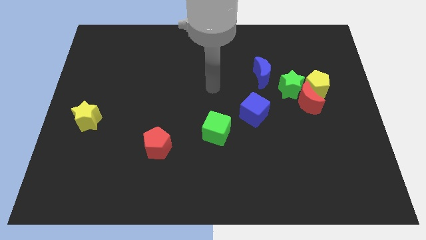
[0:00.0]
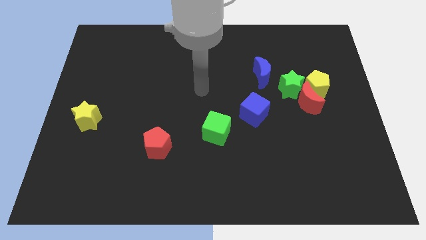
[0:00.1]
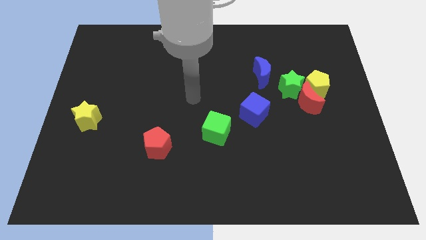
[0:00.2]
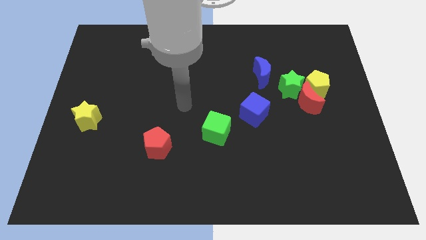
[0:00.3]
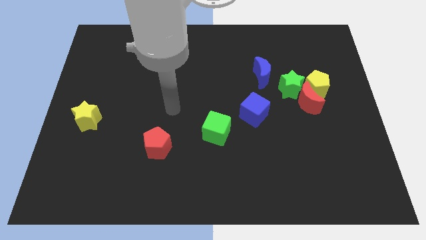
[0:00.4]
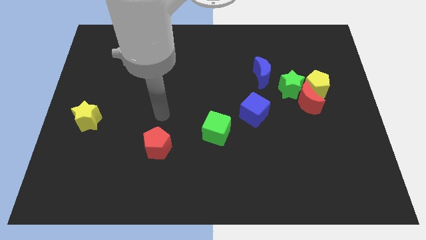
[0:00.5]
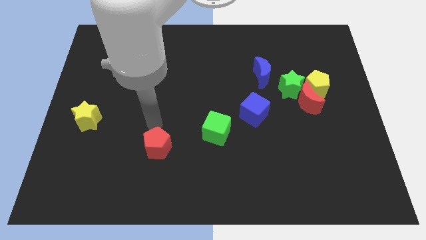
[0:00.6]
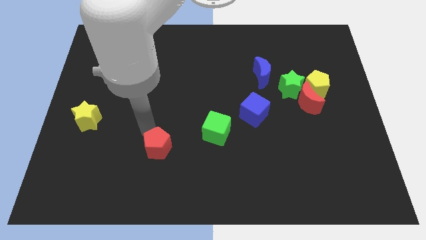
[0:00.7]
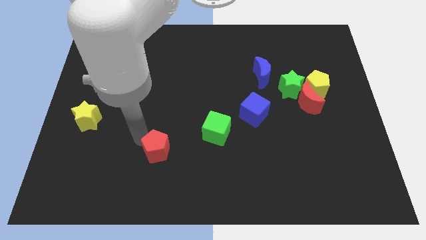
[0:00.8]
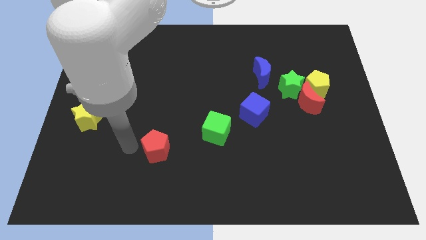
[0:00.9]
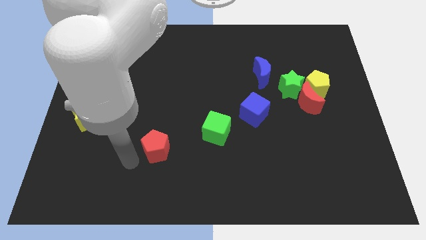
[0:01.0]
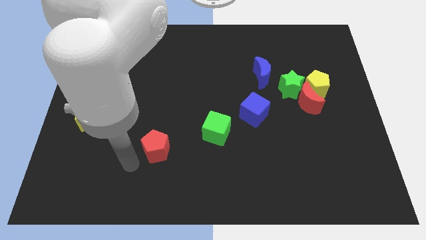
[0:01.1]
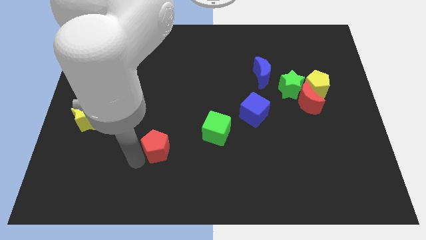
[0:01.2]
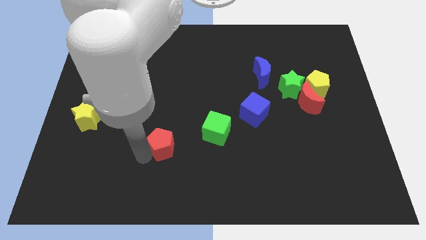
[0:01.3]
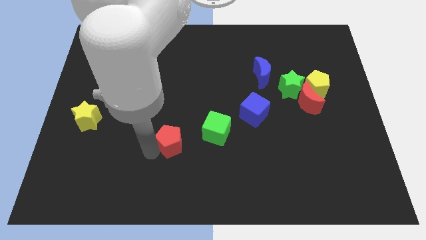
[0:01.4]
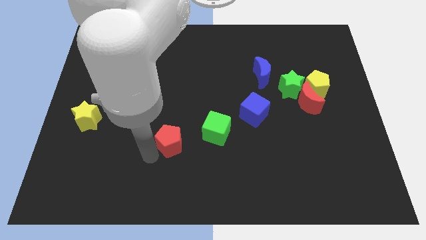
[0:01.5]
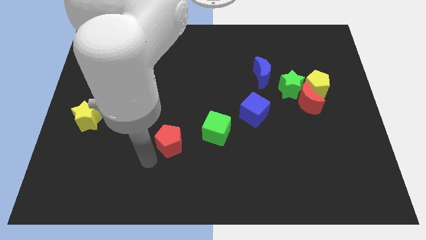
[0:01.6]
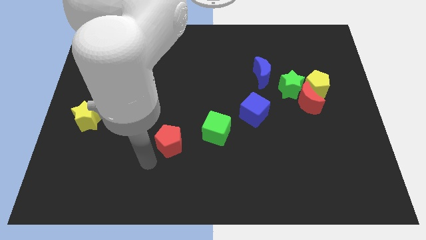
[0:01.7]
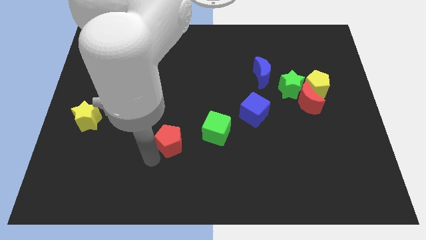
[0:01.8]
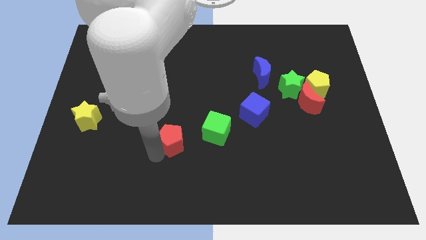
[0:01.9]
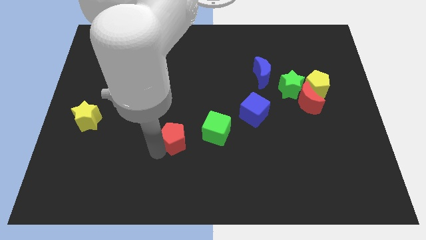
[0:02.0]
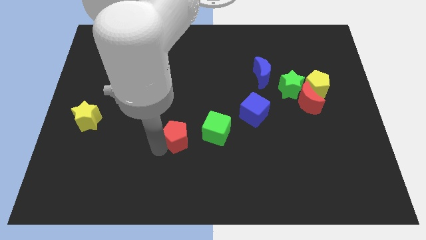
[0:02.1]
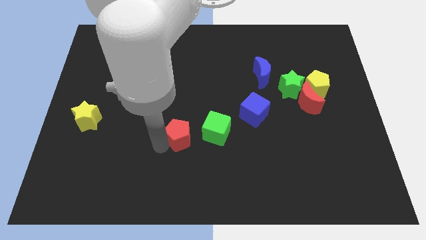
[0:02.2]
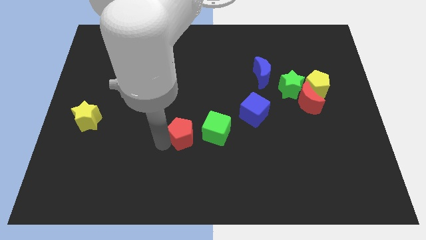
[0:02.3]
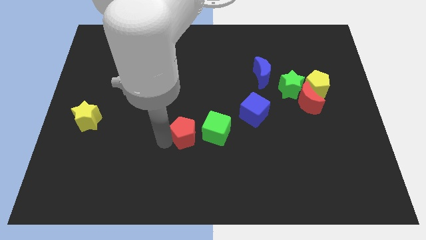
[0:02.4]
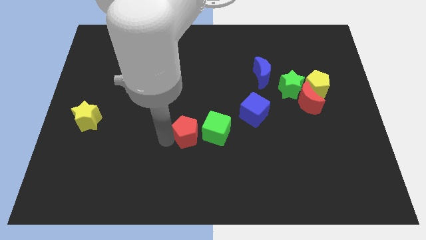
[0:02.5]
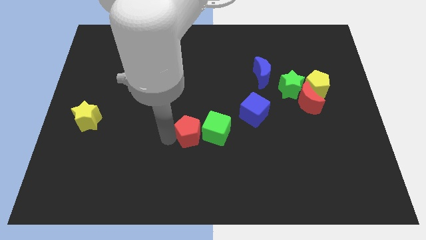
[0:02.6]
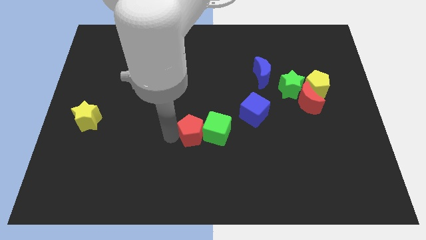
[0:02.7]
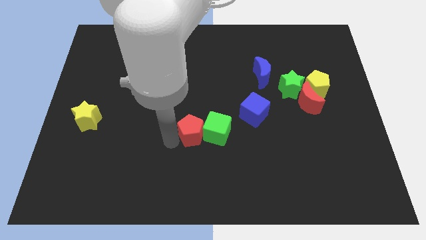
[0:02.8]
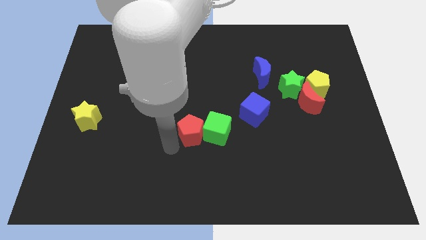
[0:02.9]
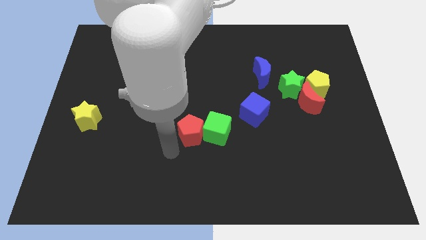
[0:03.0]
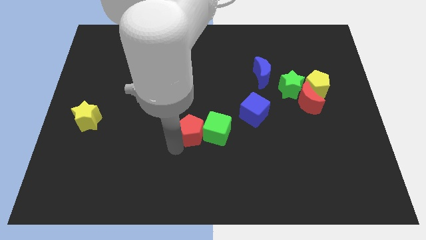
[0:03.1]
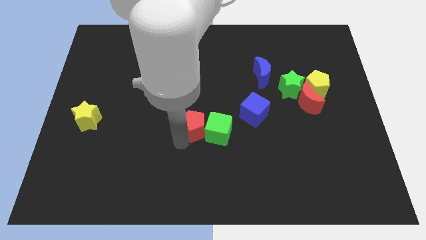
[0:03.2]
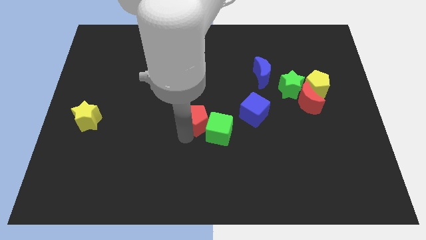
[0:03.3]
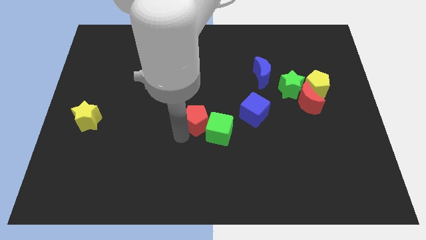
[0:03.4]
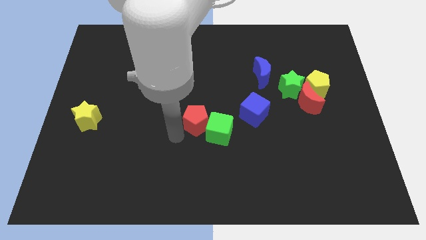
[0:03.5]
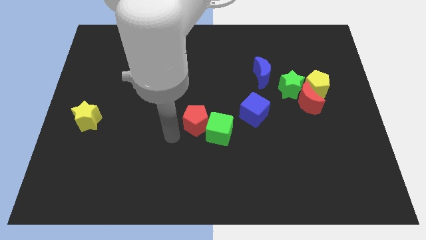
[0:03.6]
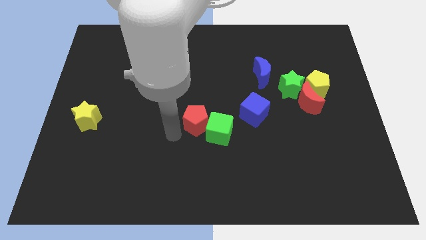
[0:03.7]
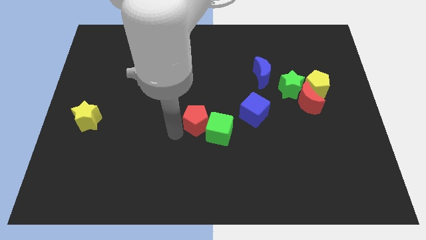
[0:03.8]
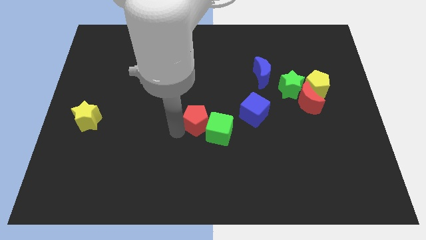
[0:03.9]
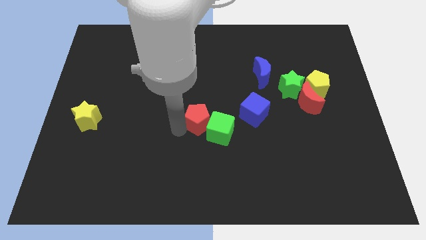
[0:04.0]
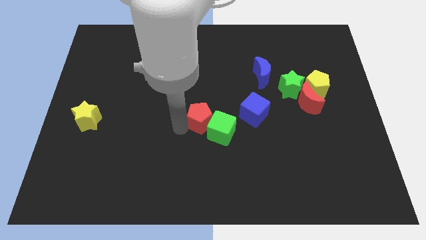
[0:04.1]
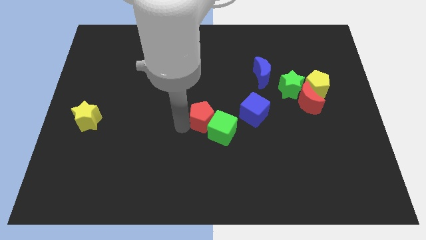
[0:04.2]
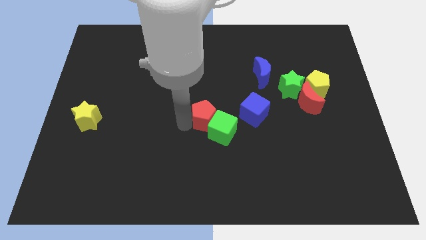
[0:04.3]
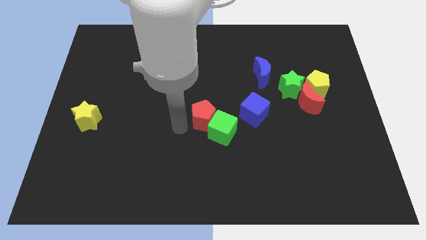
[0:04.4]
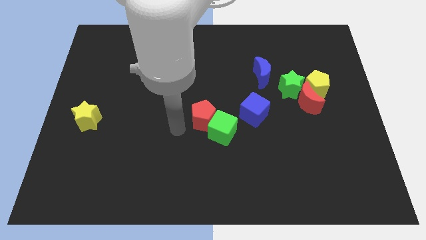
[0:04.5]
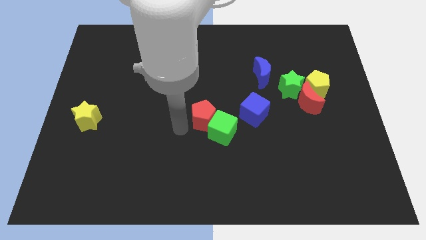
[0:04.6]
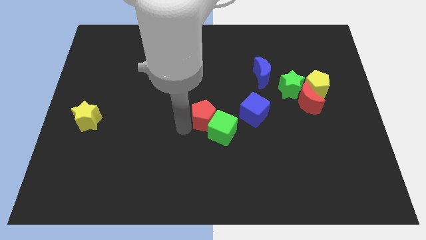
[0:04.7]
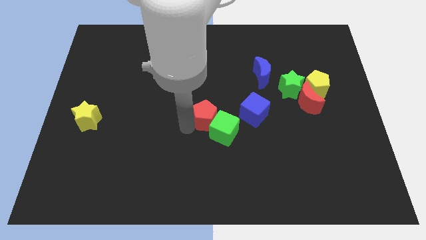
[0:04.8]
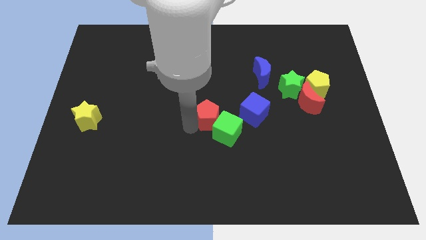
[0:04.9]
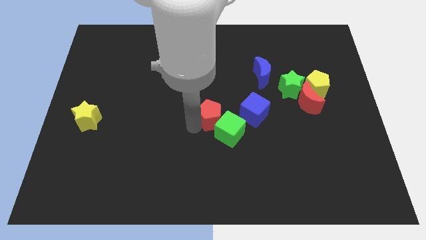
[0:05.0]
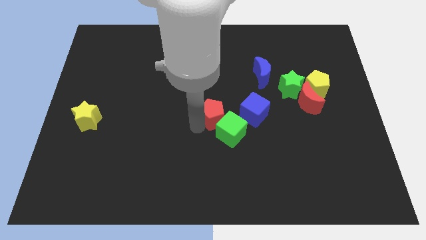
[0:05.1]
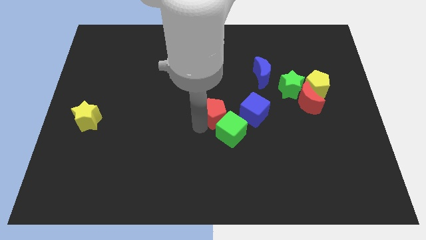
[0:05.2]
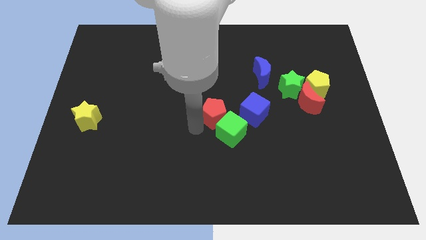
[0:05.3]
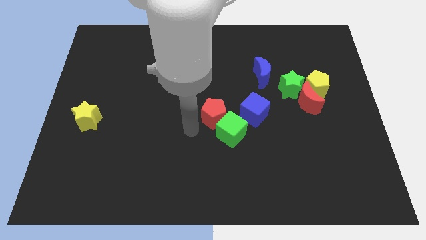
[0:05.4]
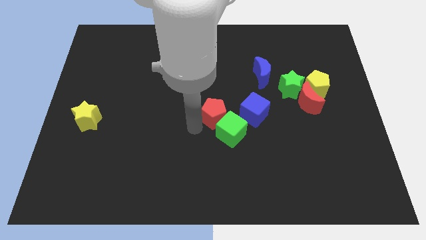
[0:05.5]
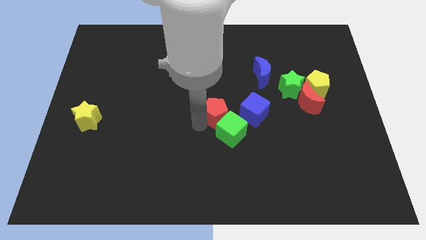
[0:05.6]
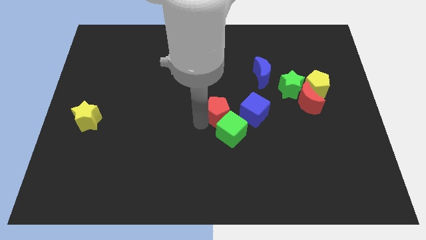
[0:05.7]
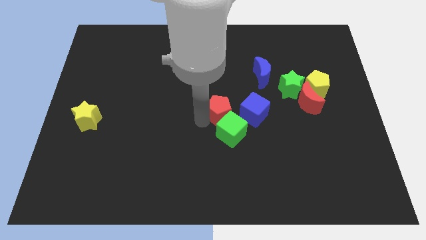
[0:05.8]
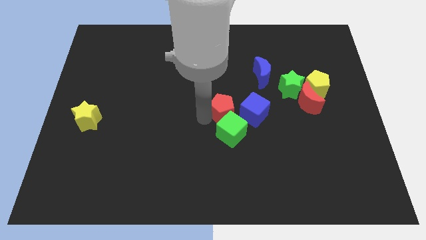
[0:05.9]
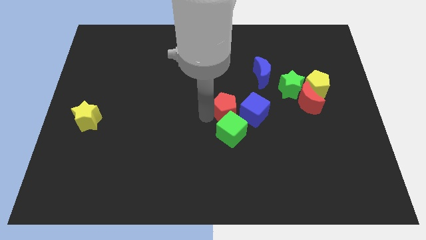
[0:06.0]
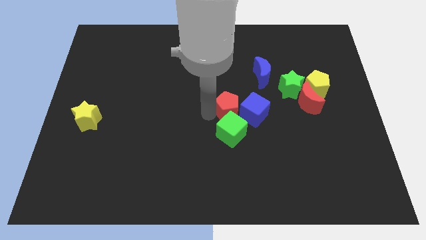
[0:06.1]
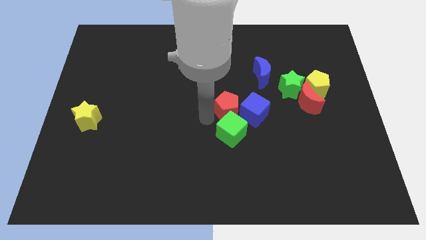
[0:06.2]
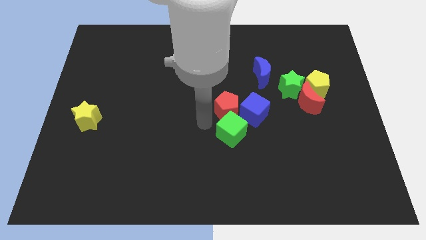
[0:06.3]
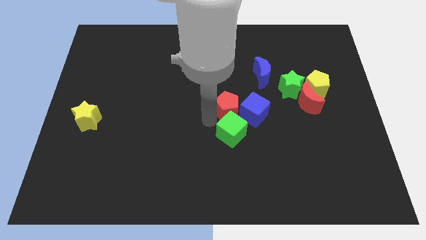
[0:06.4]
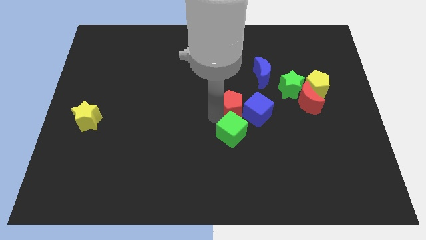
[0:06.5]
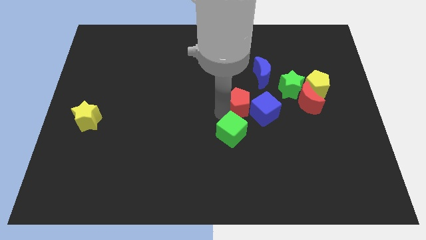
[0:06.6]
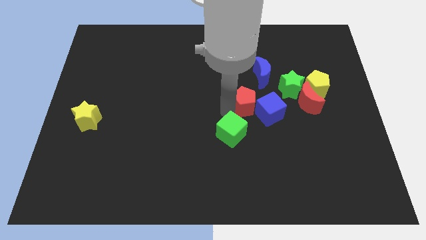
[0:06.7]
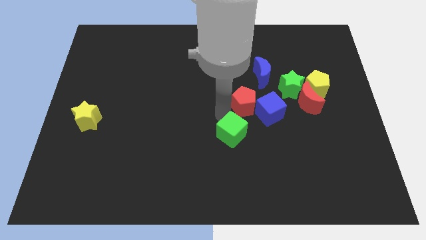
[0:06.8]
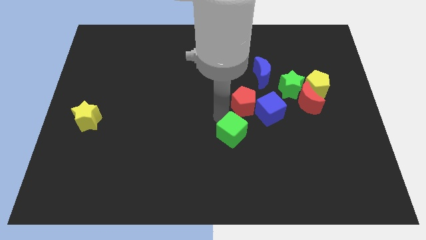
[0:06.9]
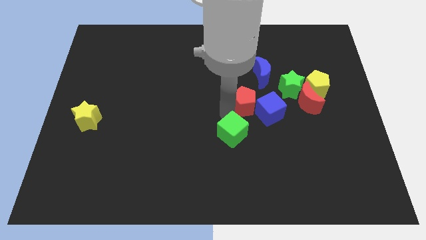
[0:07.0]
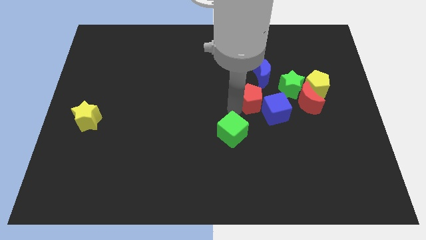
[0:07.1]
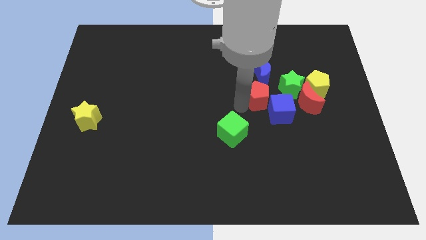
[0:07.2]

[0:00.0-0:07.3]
put the red pentagon to the left side of the yellow pentagon
